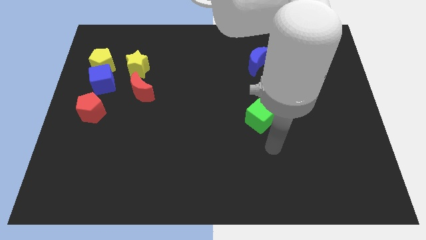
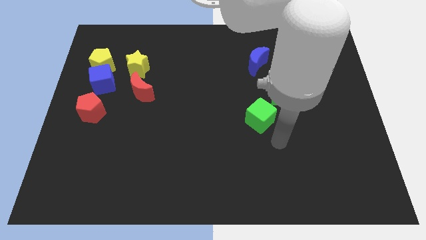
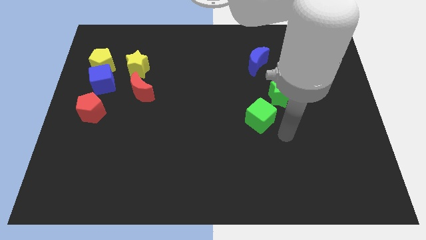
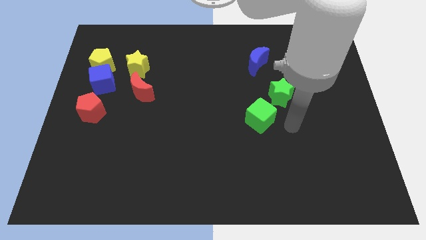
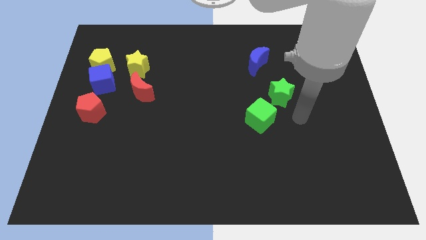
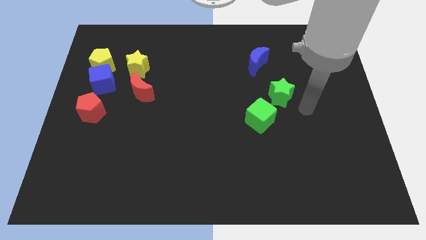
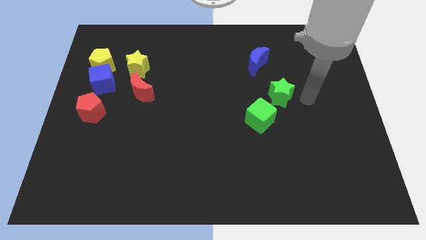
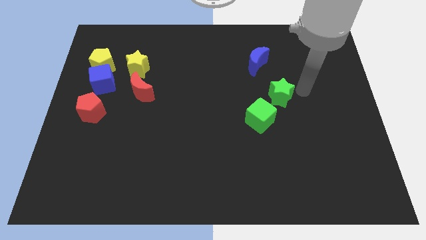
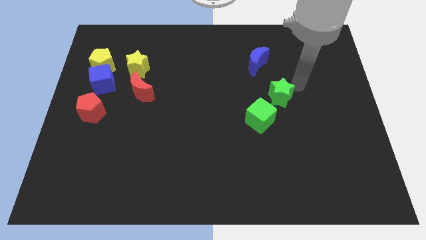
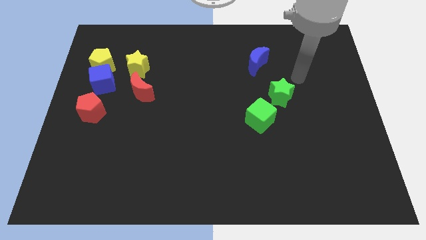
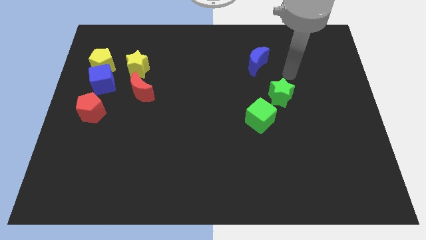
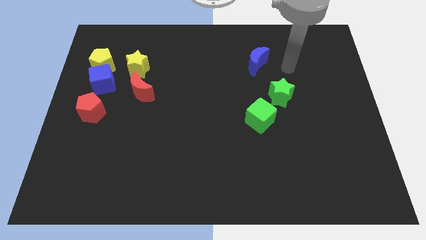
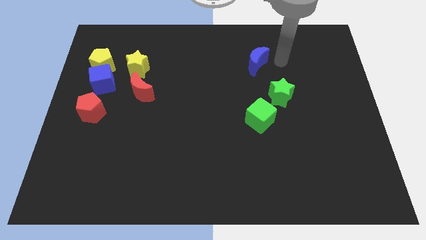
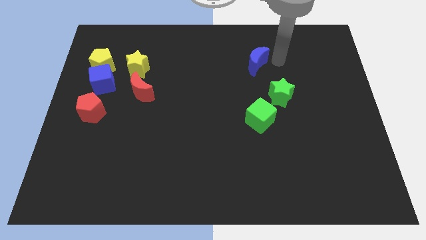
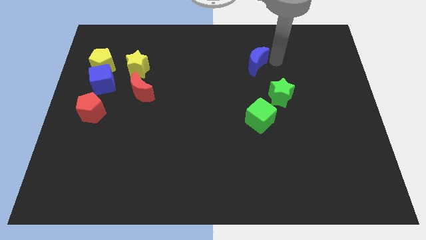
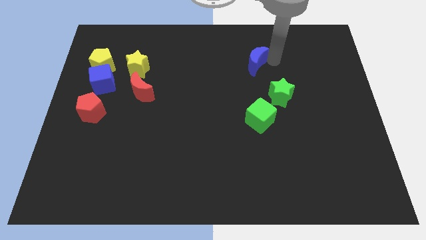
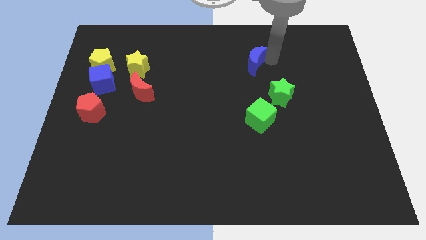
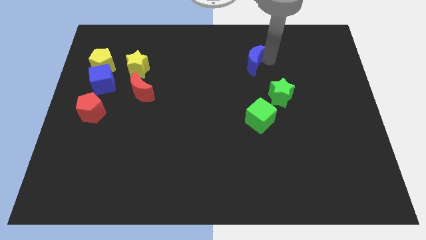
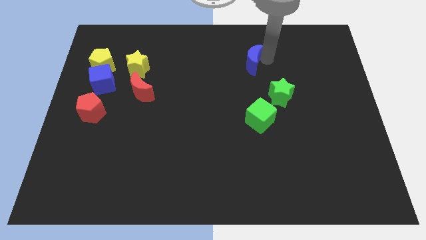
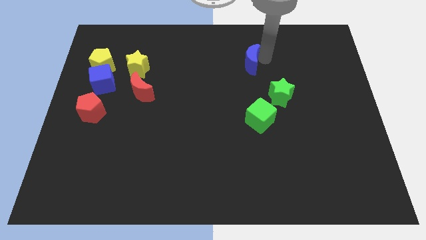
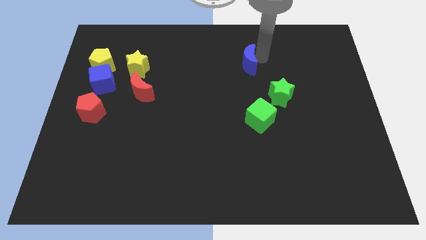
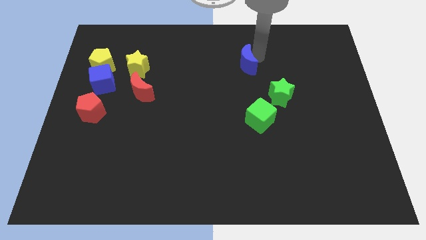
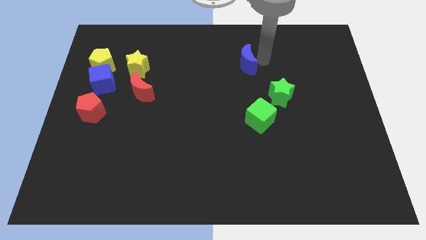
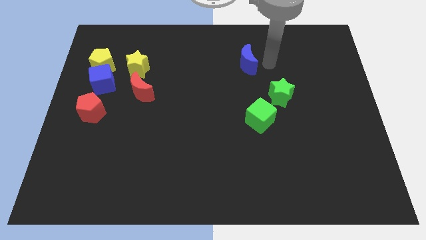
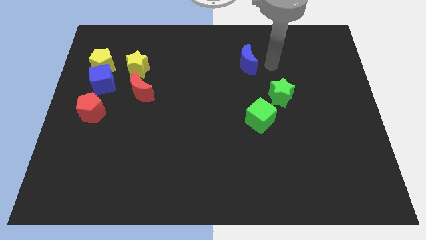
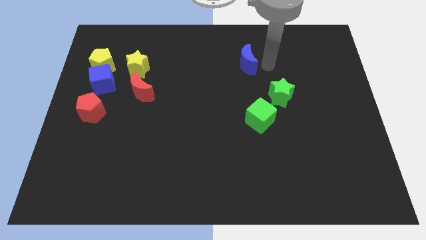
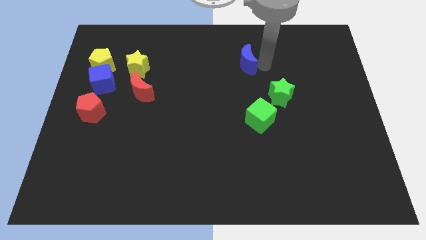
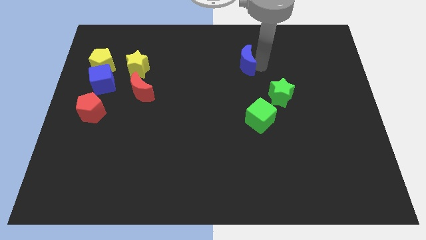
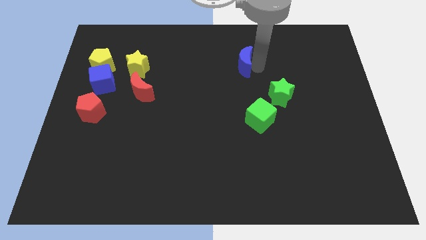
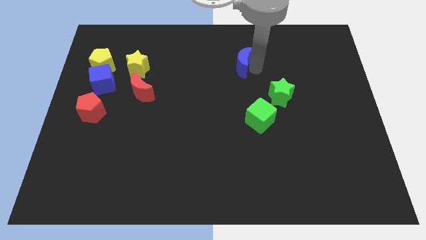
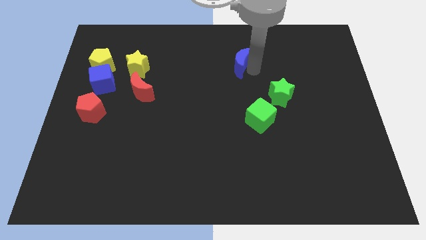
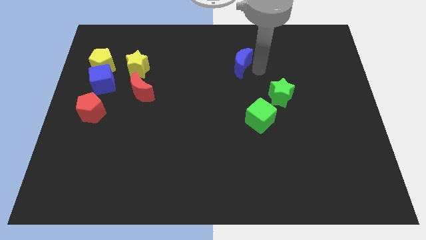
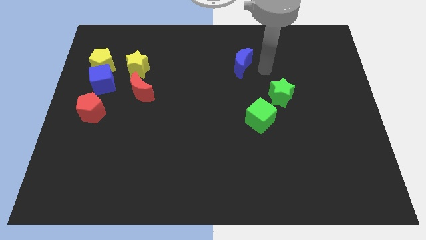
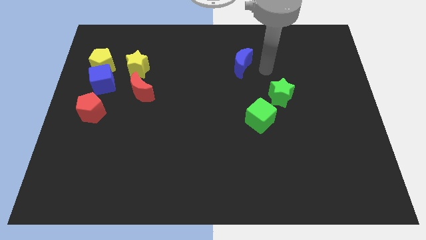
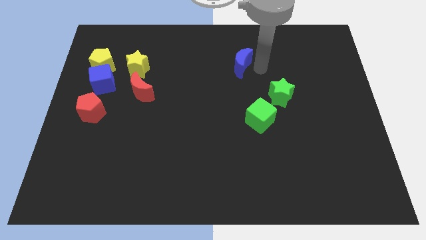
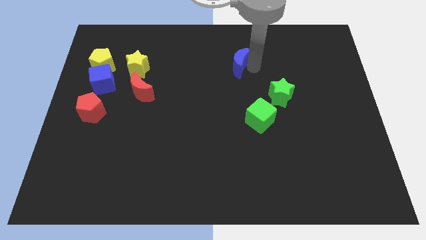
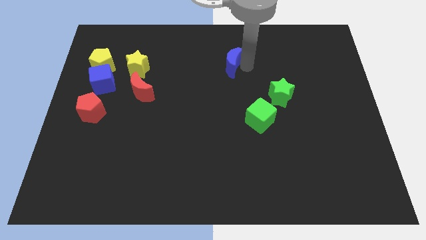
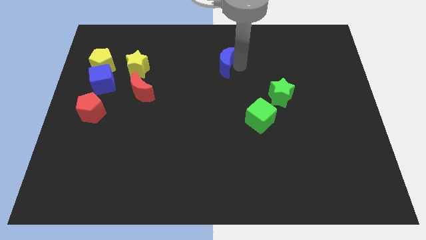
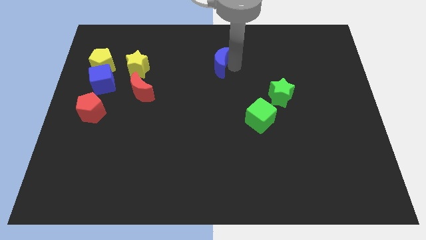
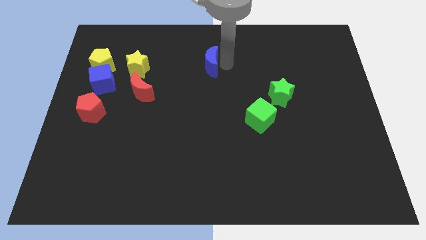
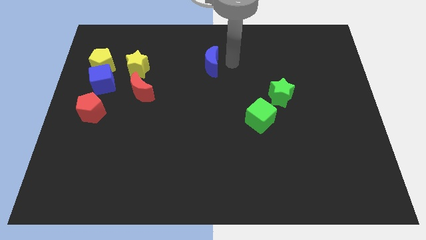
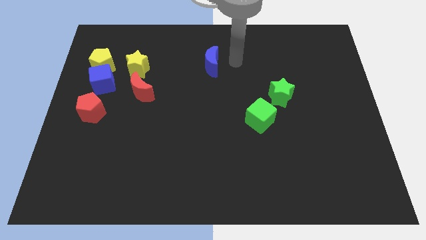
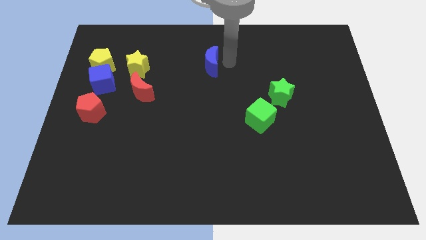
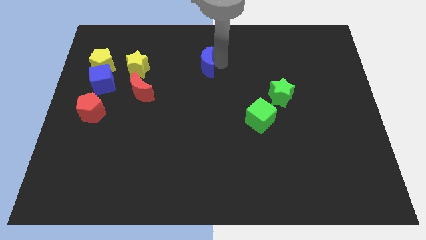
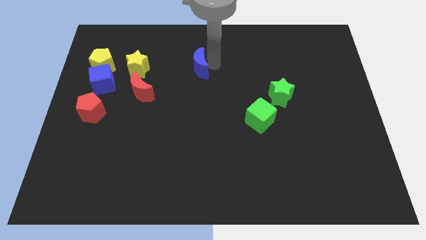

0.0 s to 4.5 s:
put the blue moon right of the yellow star

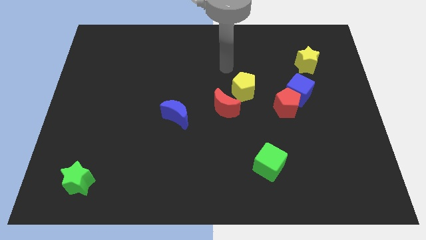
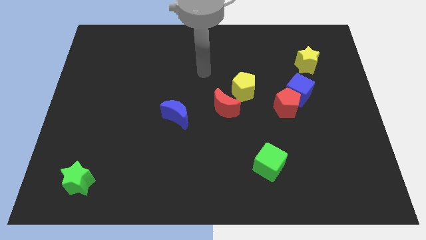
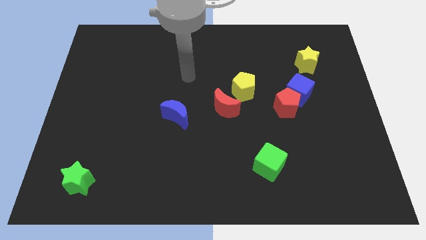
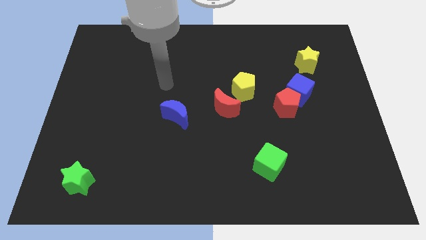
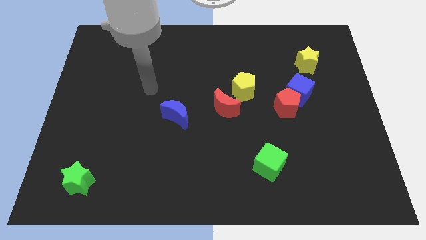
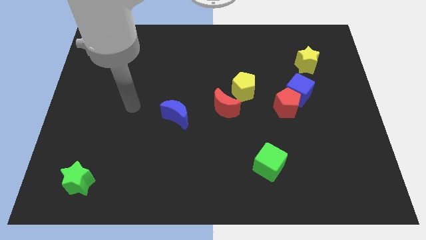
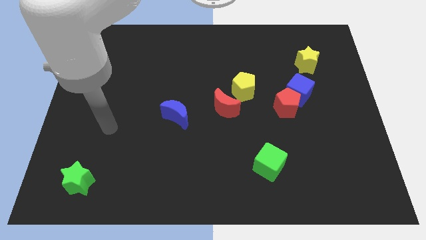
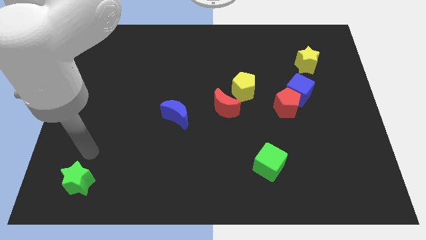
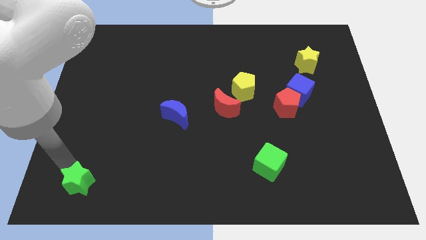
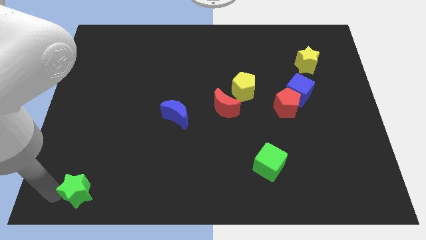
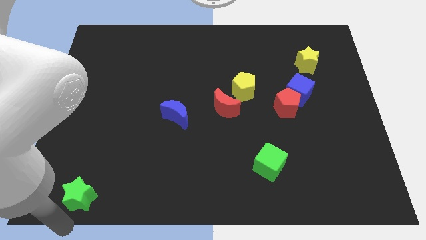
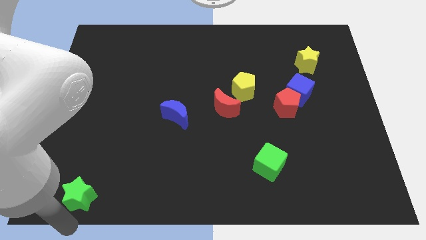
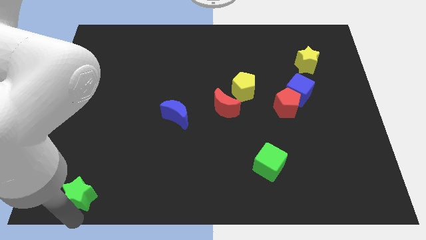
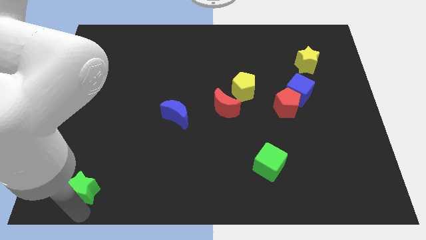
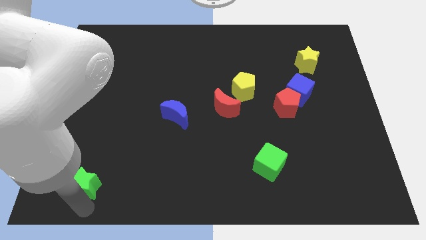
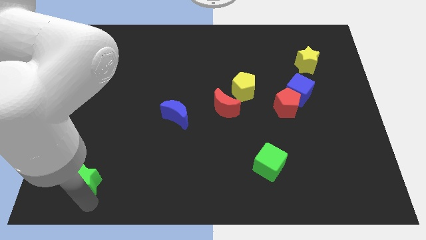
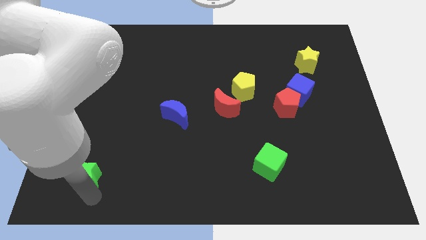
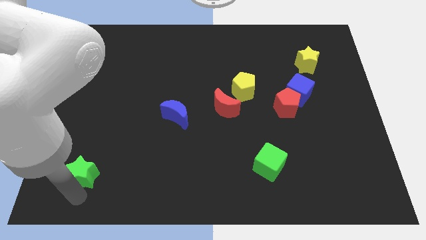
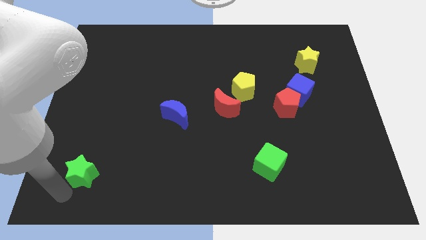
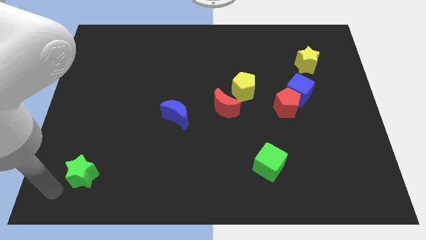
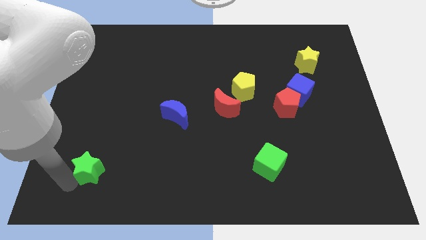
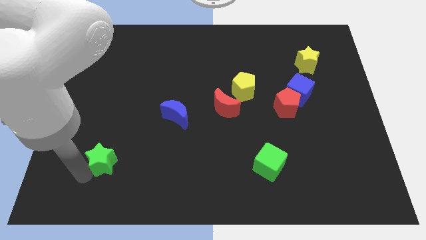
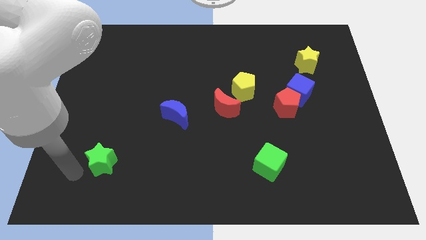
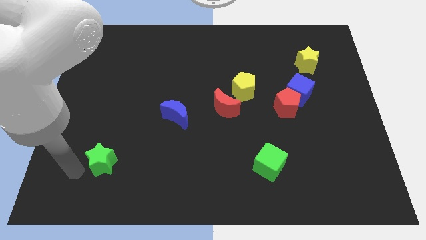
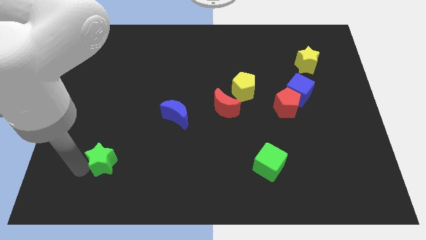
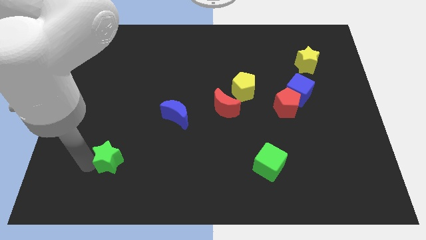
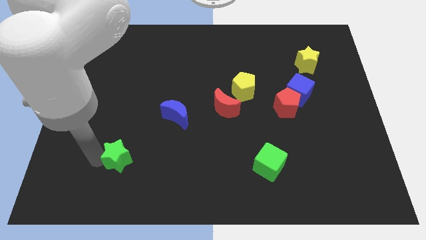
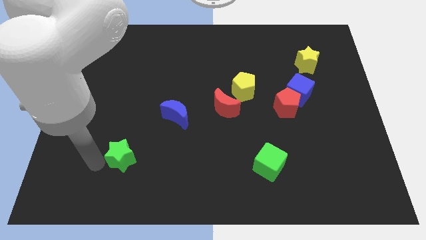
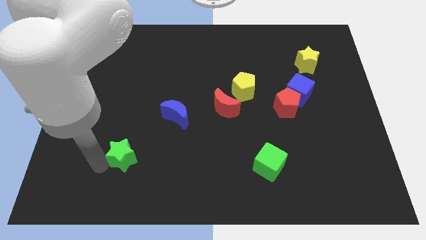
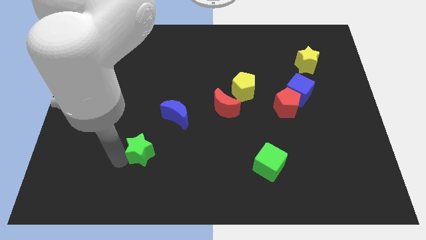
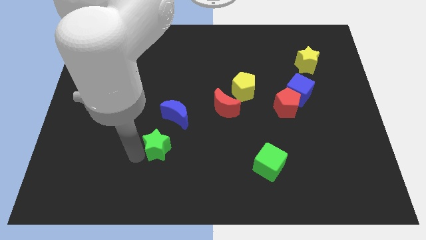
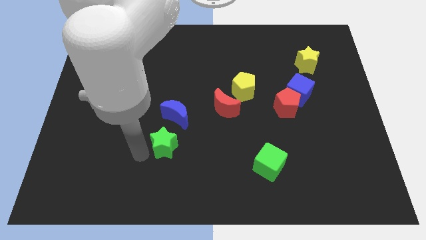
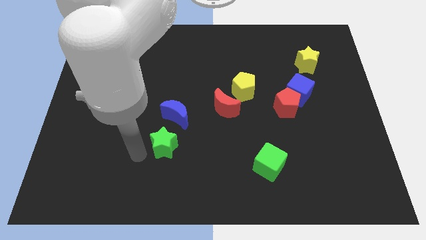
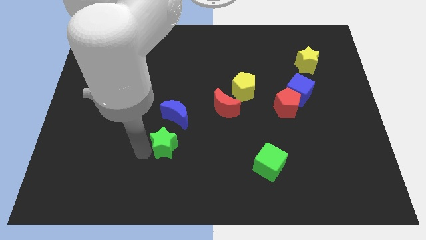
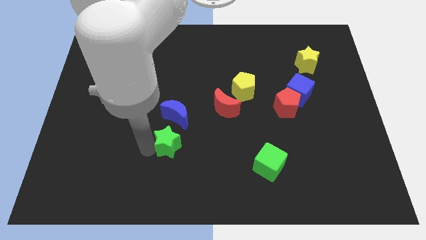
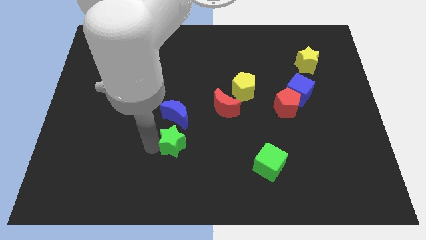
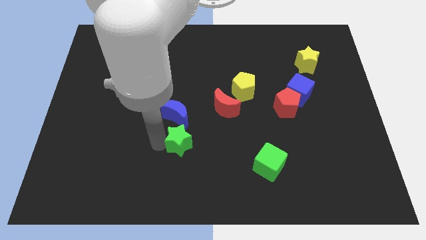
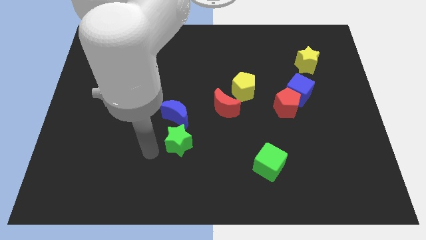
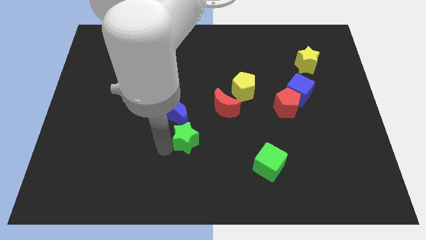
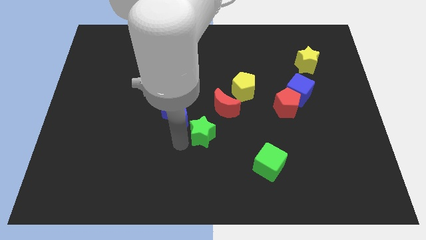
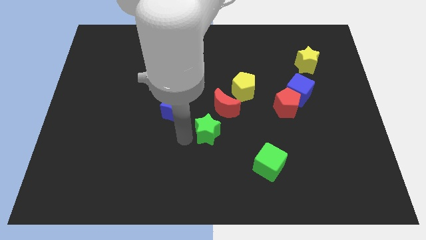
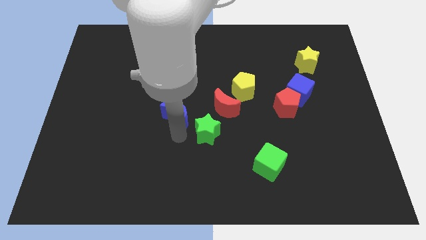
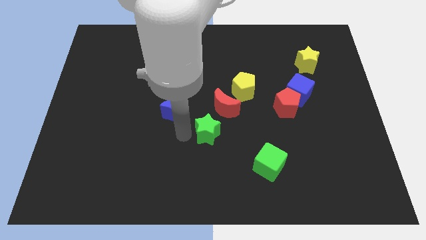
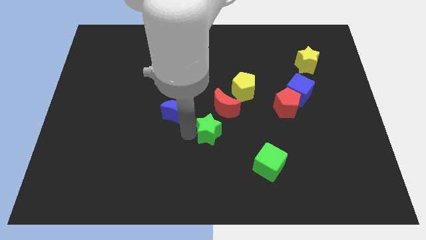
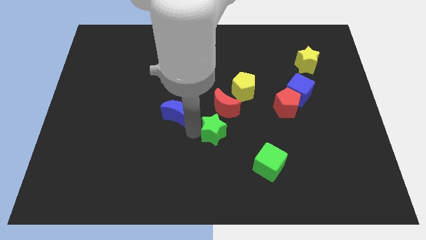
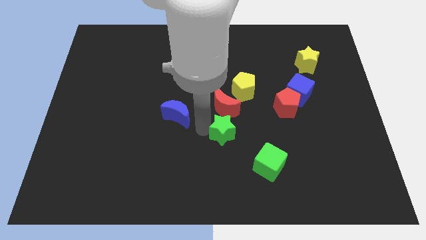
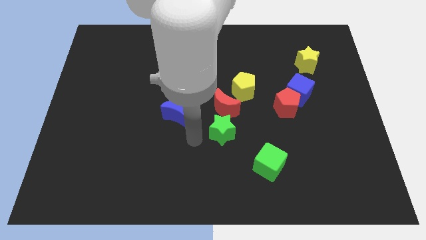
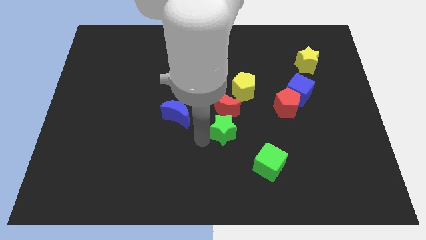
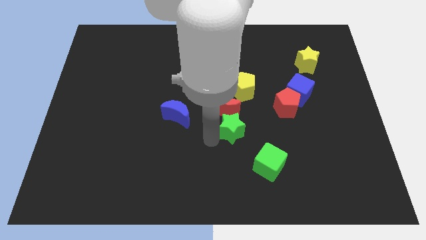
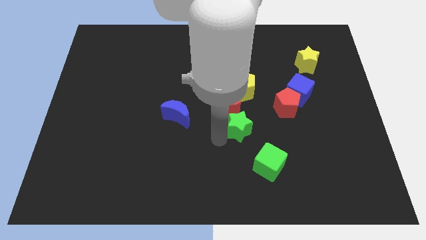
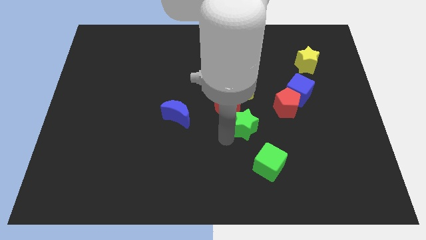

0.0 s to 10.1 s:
push the green star to the top of the green cube
